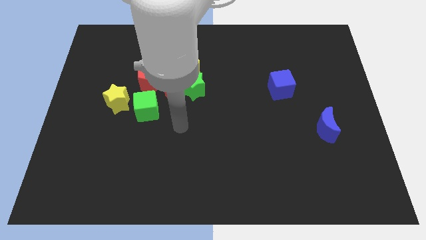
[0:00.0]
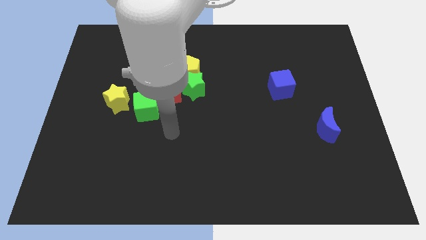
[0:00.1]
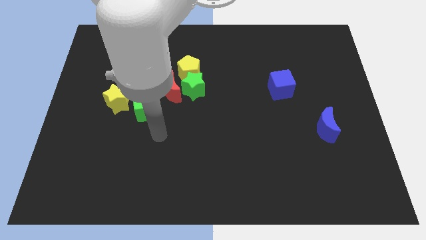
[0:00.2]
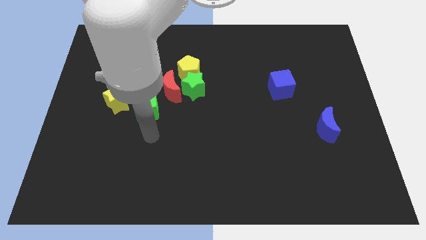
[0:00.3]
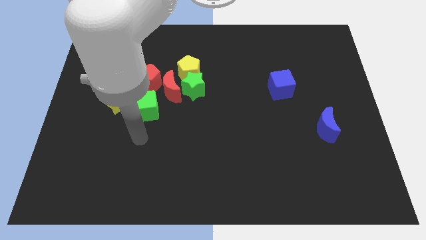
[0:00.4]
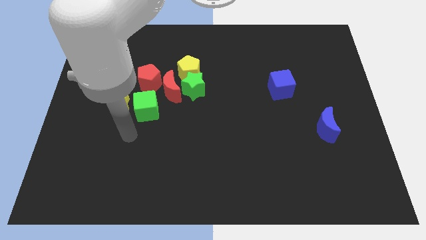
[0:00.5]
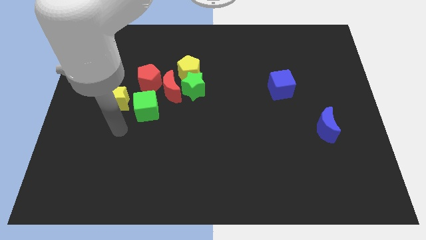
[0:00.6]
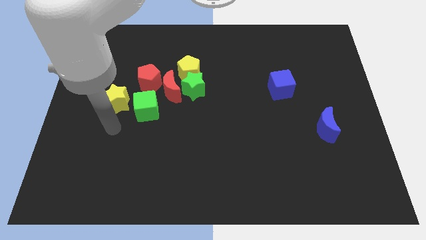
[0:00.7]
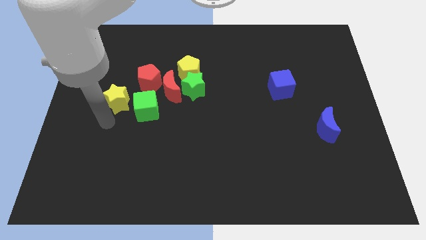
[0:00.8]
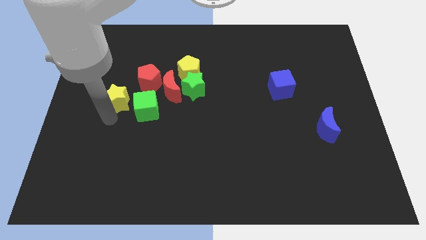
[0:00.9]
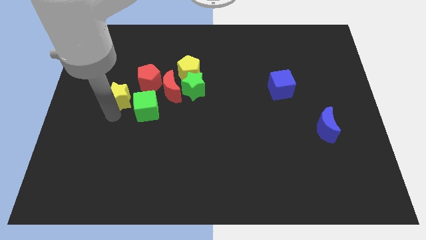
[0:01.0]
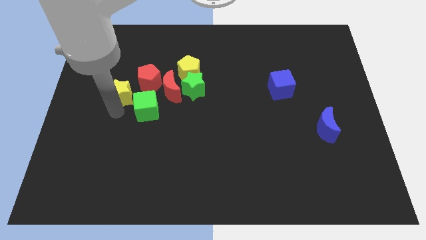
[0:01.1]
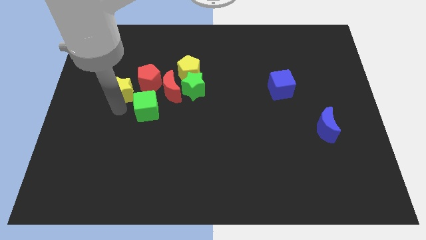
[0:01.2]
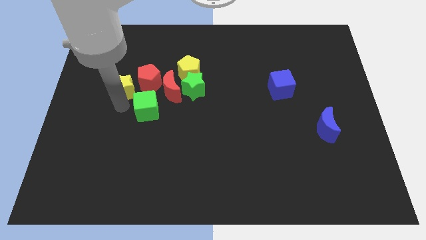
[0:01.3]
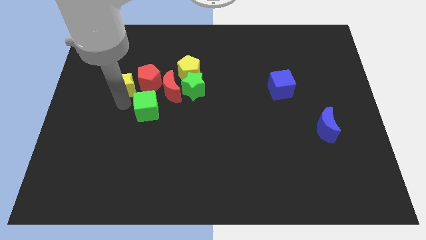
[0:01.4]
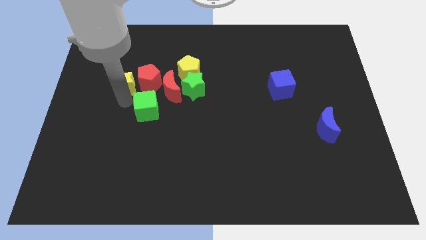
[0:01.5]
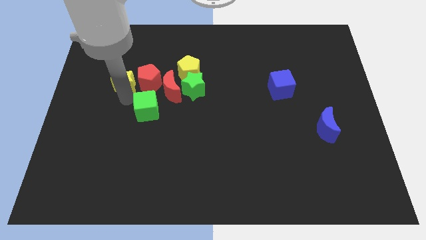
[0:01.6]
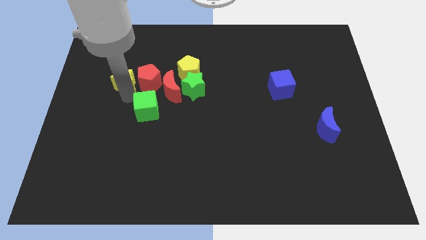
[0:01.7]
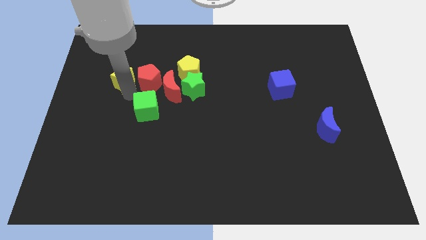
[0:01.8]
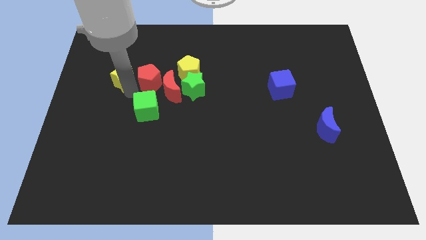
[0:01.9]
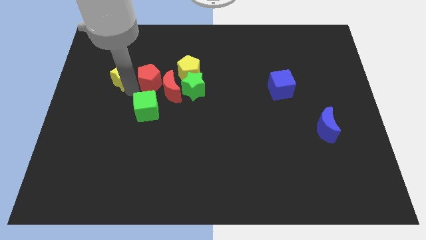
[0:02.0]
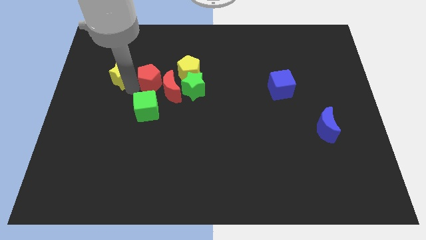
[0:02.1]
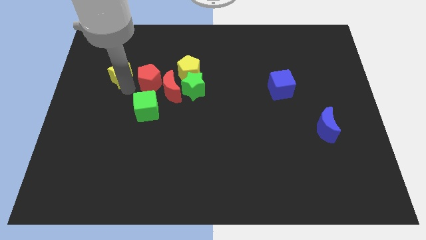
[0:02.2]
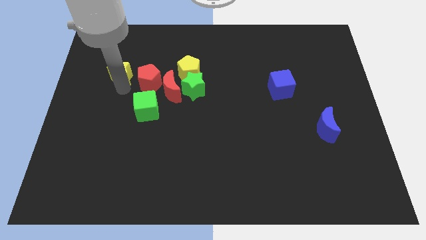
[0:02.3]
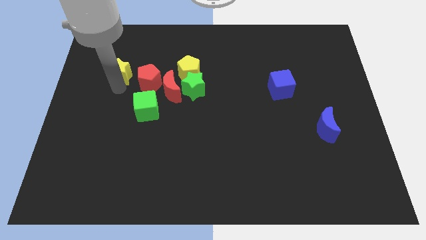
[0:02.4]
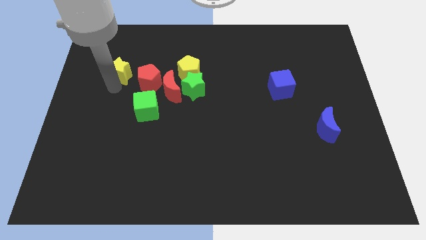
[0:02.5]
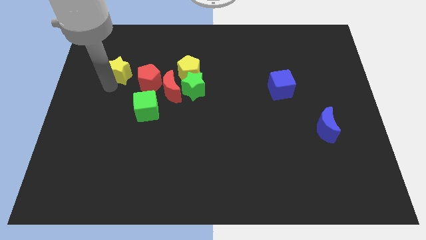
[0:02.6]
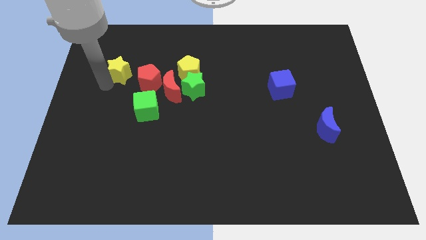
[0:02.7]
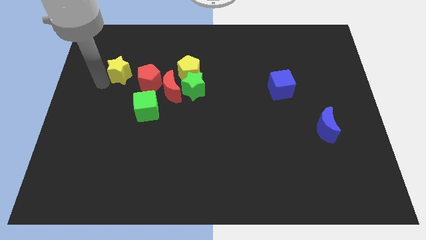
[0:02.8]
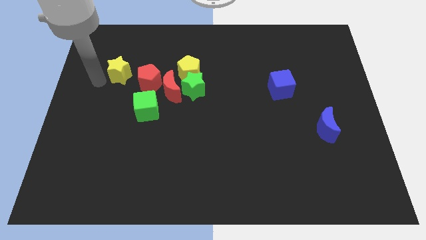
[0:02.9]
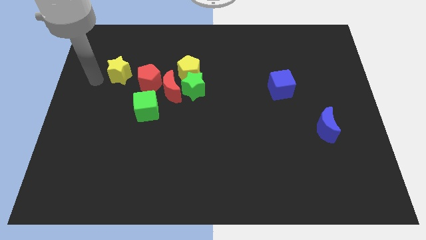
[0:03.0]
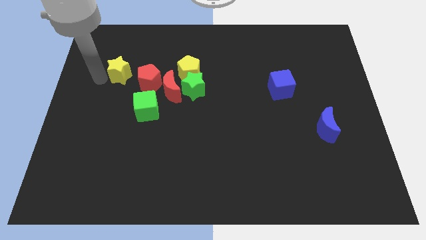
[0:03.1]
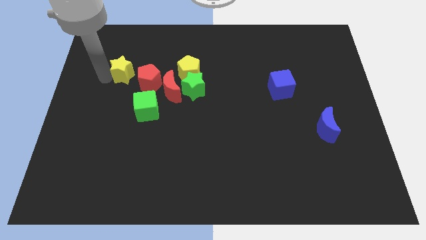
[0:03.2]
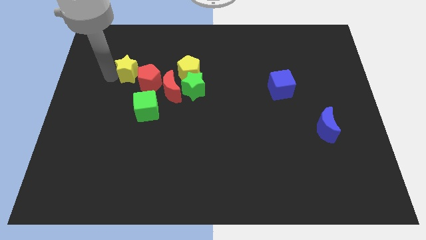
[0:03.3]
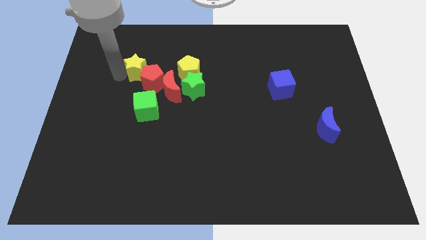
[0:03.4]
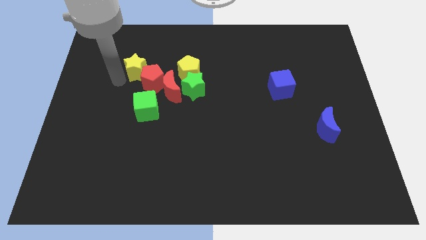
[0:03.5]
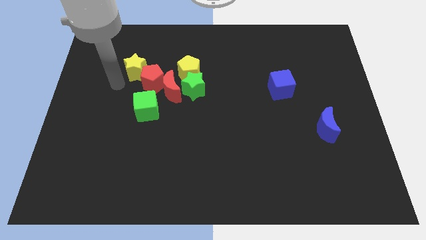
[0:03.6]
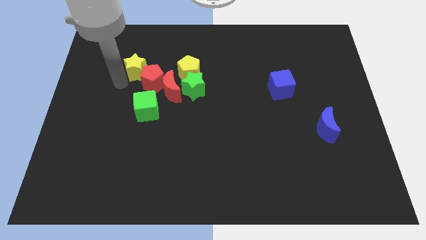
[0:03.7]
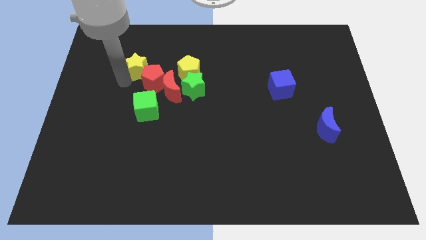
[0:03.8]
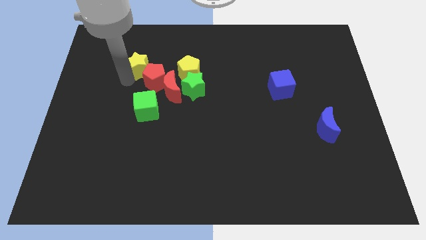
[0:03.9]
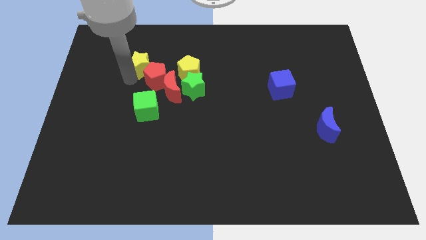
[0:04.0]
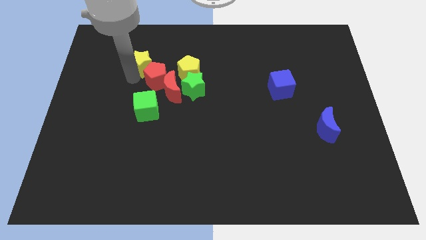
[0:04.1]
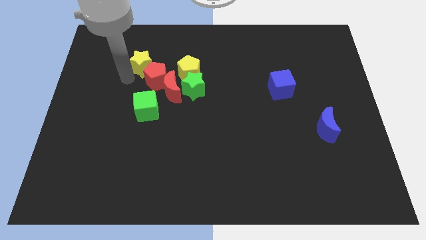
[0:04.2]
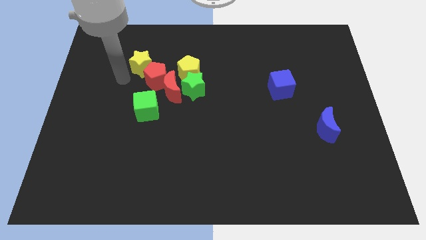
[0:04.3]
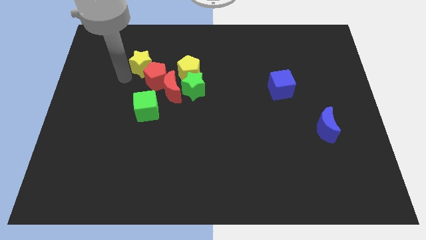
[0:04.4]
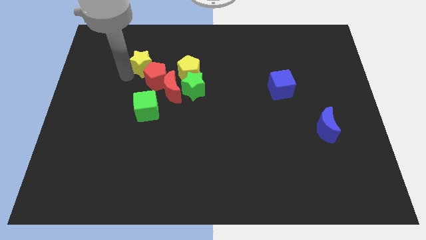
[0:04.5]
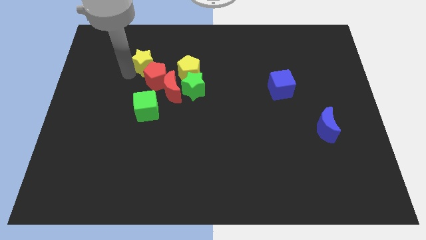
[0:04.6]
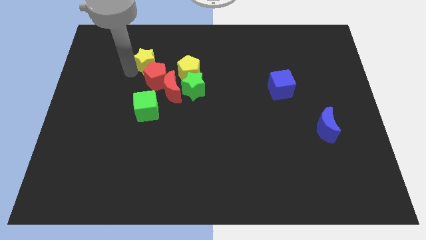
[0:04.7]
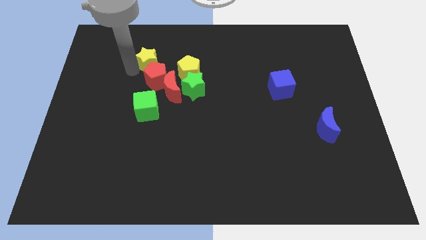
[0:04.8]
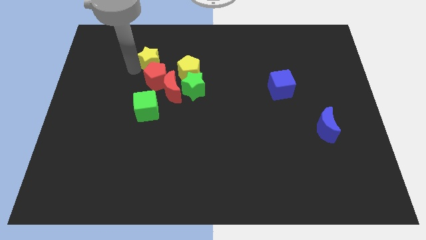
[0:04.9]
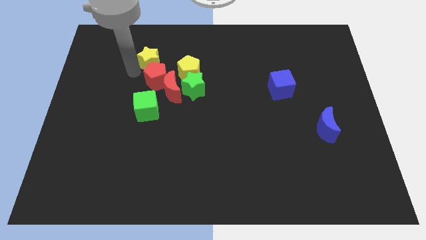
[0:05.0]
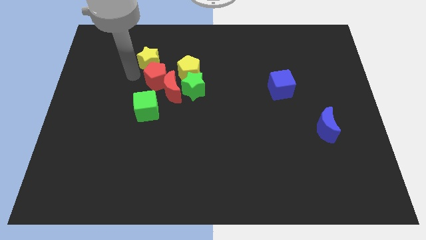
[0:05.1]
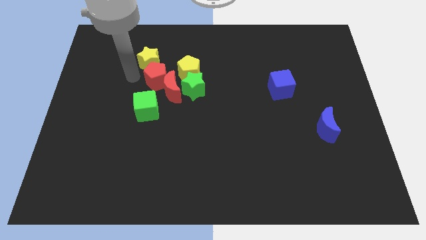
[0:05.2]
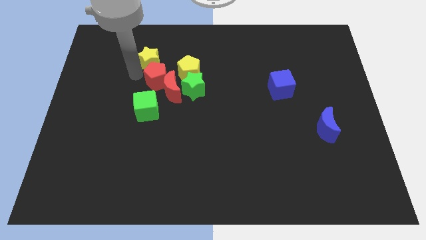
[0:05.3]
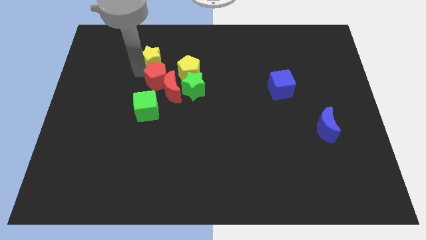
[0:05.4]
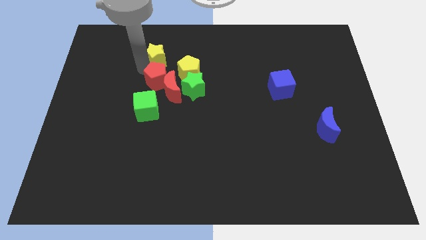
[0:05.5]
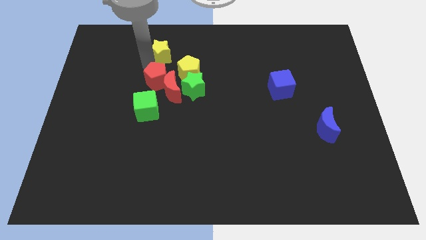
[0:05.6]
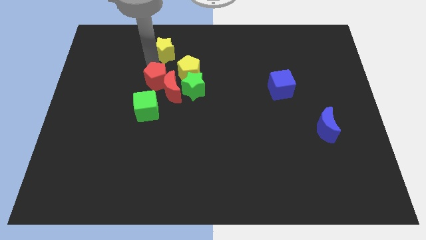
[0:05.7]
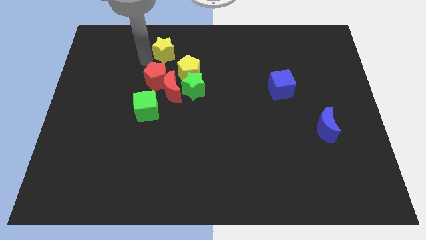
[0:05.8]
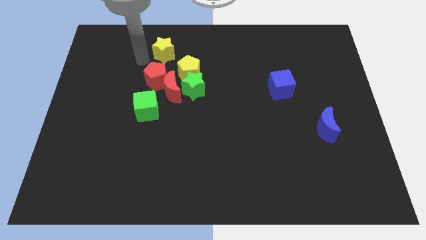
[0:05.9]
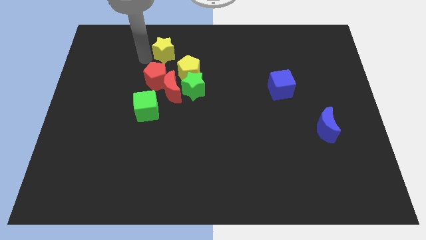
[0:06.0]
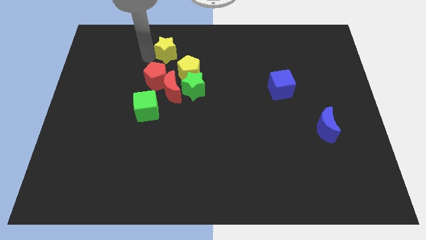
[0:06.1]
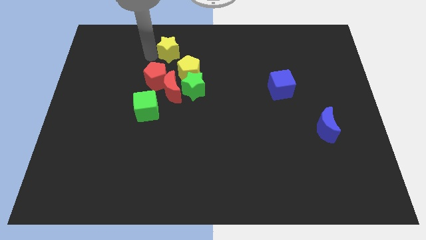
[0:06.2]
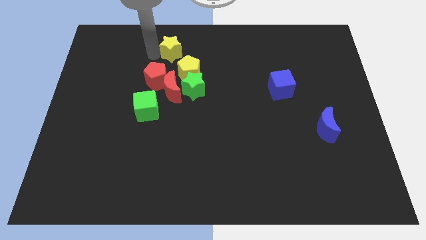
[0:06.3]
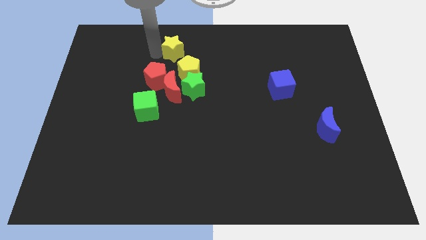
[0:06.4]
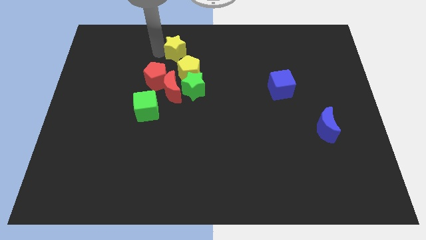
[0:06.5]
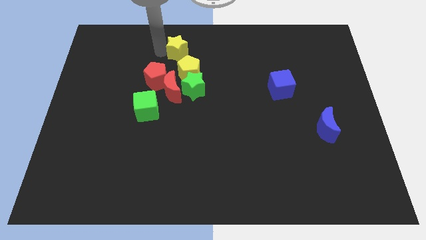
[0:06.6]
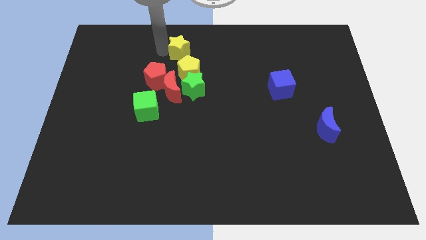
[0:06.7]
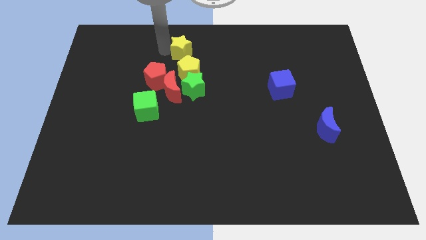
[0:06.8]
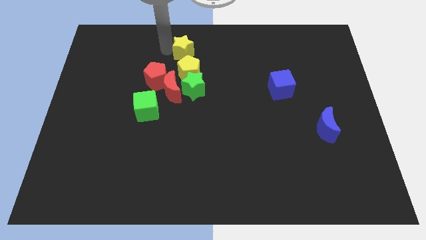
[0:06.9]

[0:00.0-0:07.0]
push the yellow star to the top side
